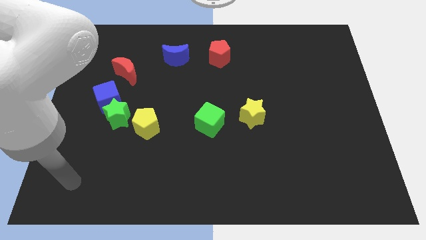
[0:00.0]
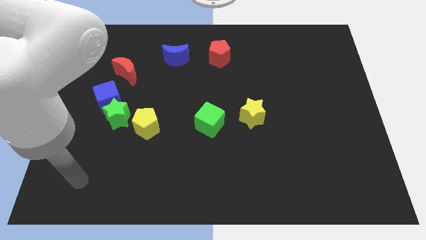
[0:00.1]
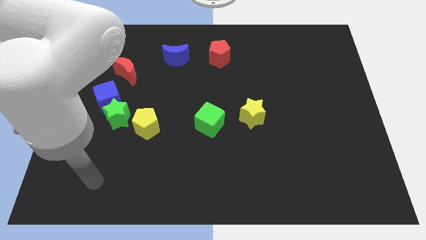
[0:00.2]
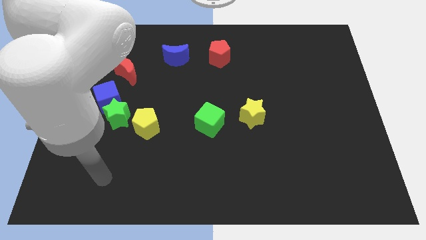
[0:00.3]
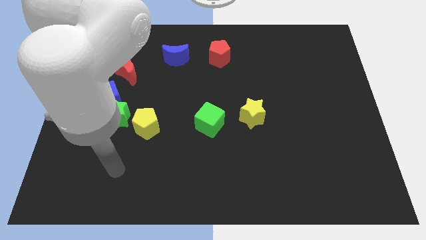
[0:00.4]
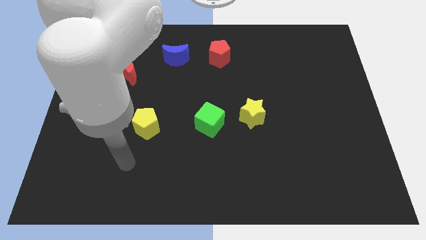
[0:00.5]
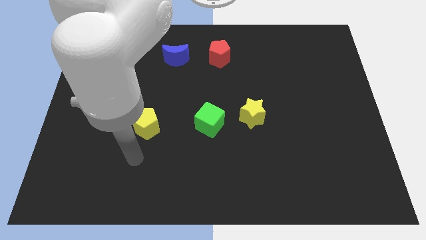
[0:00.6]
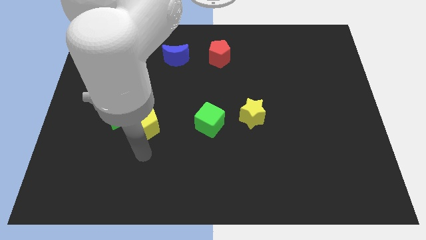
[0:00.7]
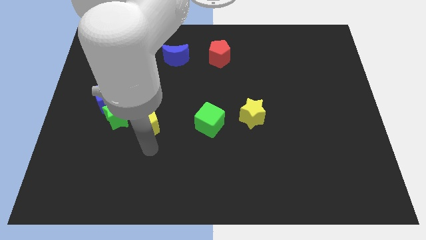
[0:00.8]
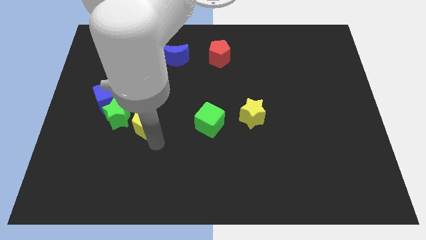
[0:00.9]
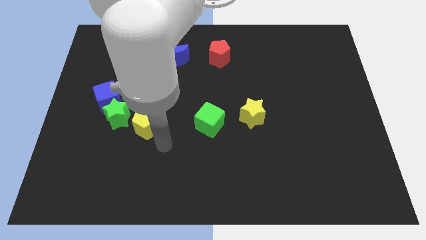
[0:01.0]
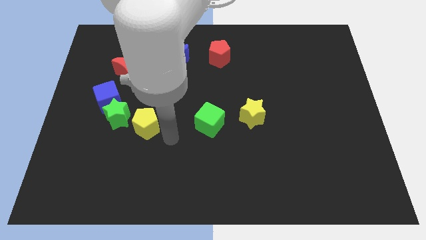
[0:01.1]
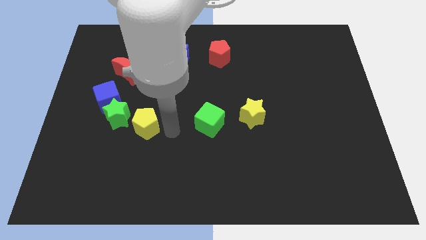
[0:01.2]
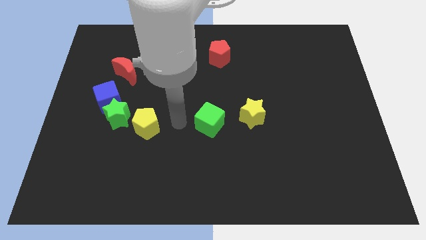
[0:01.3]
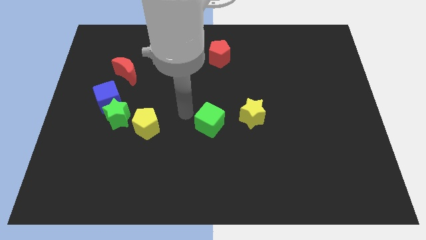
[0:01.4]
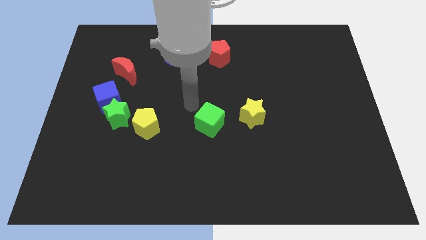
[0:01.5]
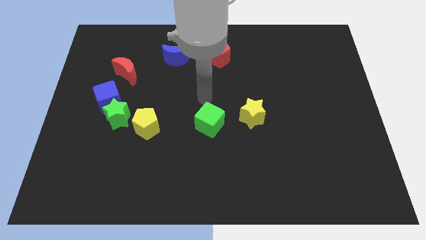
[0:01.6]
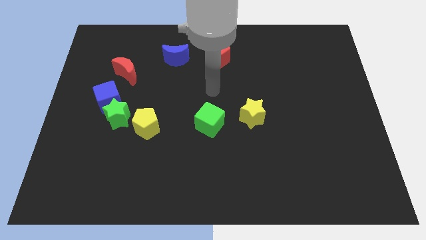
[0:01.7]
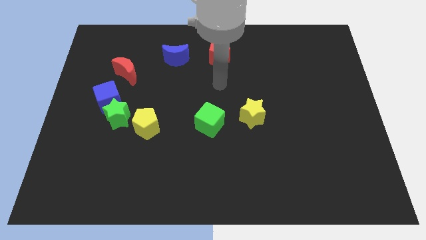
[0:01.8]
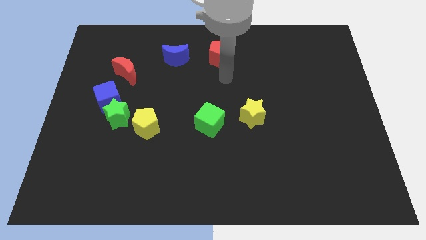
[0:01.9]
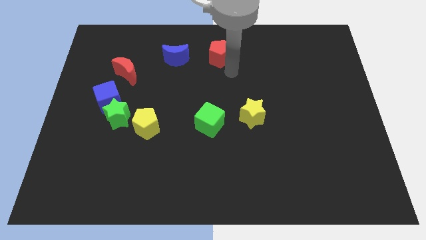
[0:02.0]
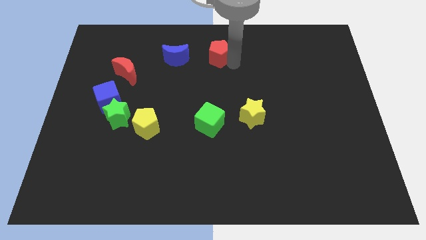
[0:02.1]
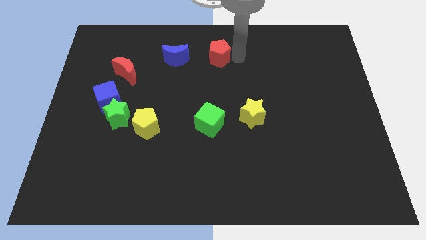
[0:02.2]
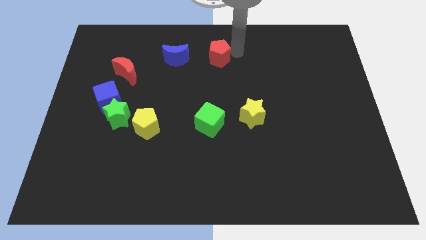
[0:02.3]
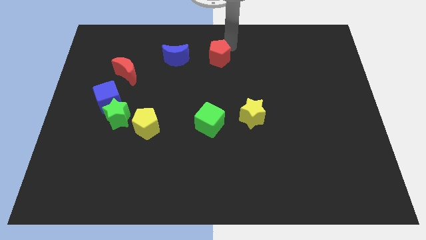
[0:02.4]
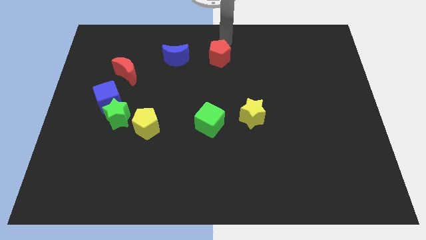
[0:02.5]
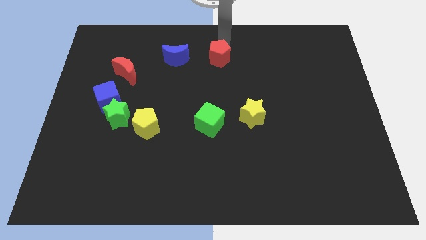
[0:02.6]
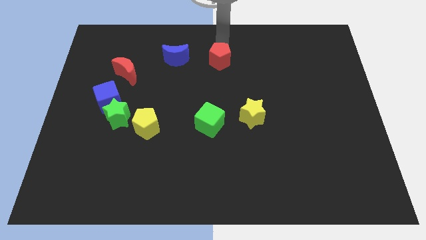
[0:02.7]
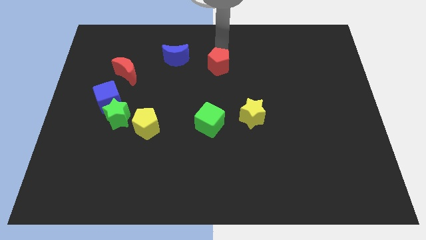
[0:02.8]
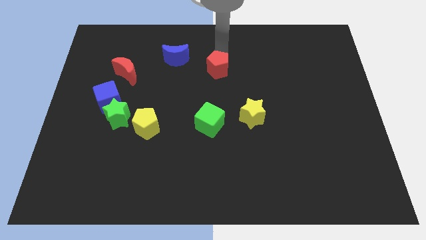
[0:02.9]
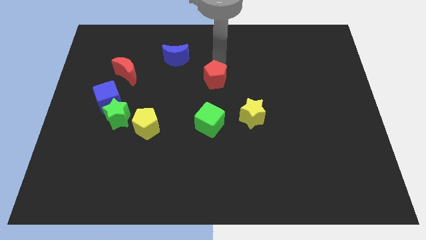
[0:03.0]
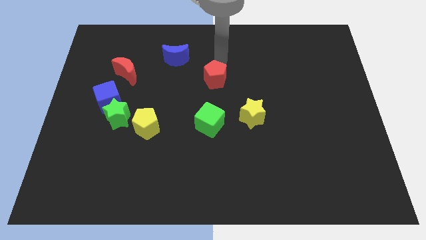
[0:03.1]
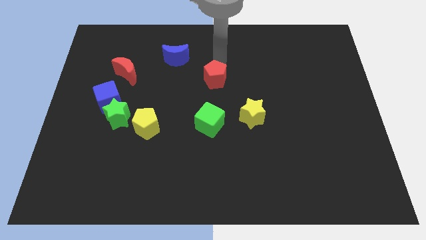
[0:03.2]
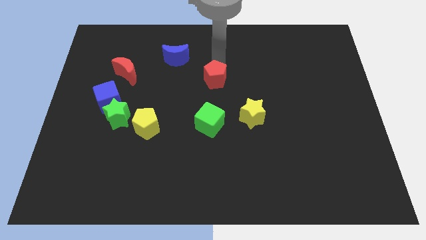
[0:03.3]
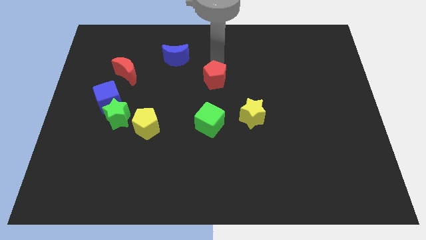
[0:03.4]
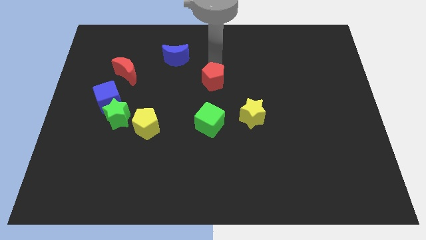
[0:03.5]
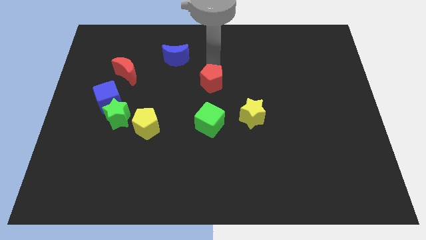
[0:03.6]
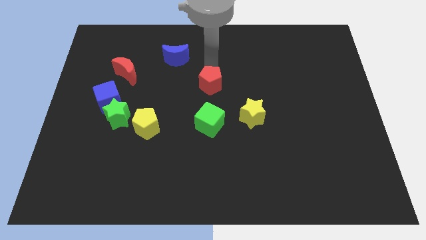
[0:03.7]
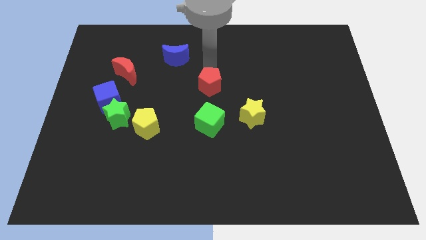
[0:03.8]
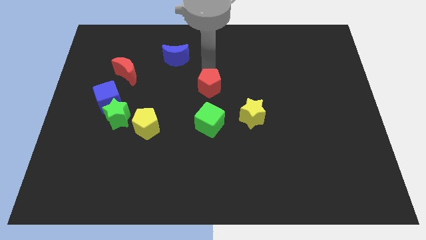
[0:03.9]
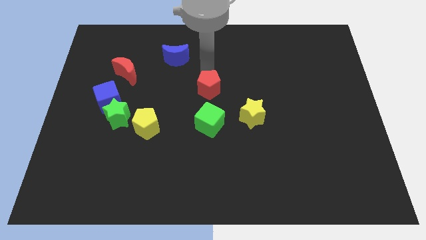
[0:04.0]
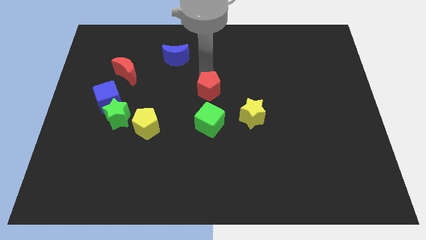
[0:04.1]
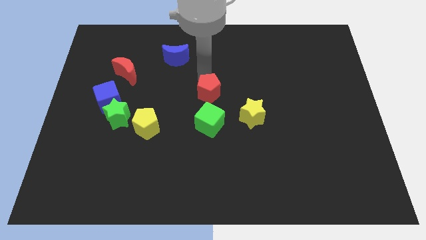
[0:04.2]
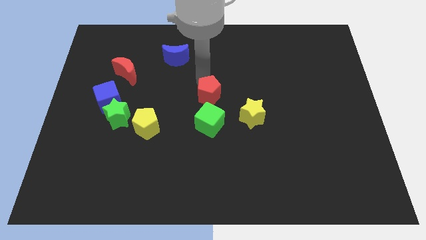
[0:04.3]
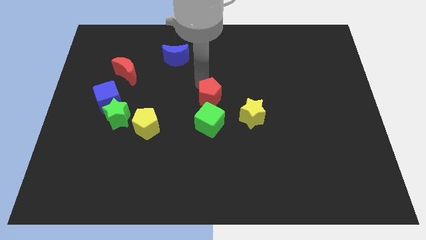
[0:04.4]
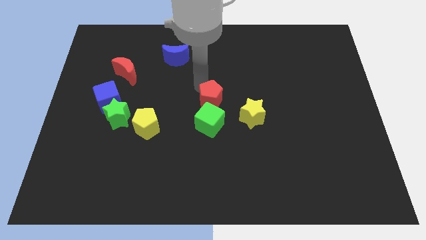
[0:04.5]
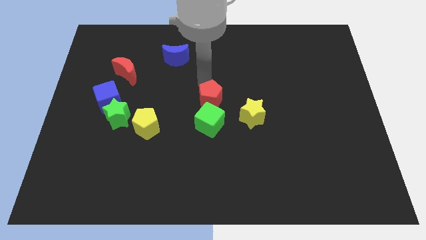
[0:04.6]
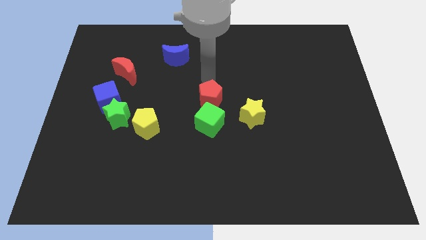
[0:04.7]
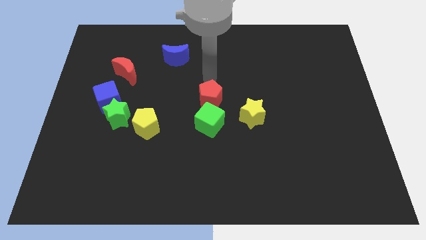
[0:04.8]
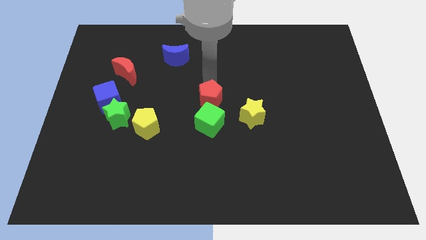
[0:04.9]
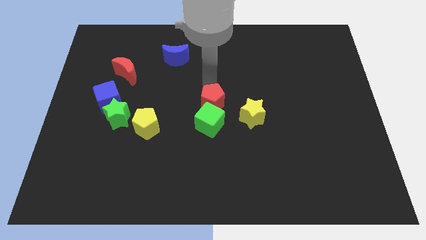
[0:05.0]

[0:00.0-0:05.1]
put the red pentagon towards the green cube

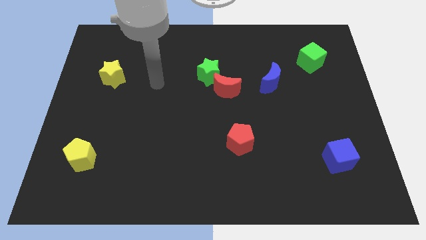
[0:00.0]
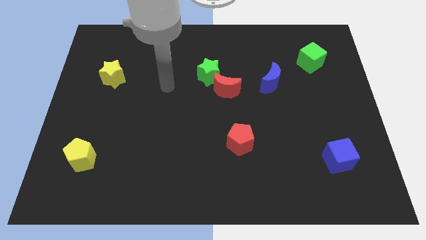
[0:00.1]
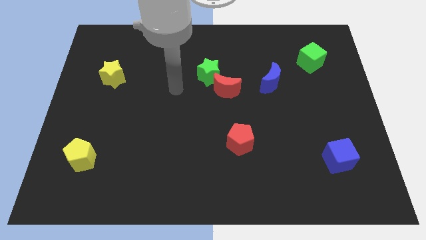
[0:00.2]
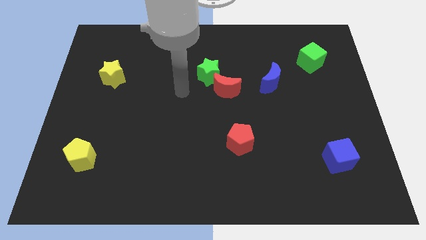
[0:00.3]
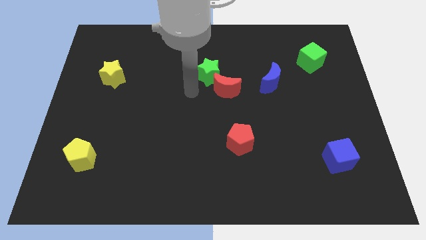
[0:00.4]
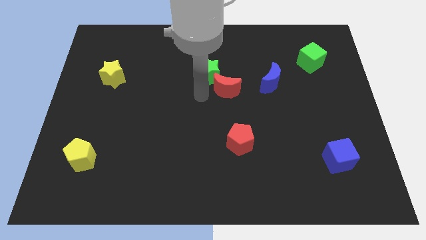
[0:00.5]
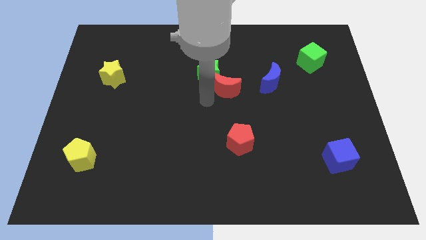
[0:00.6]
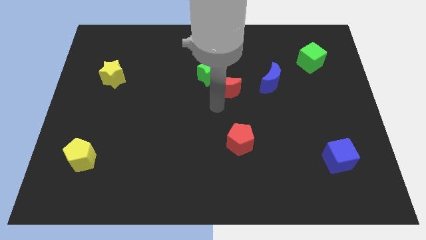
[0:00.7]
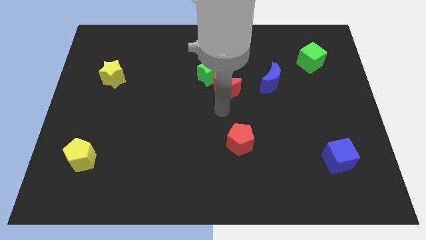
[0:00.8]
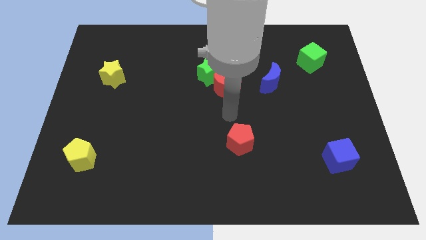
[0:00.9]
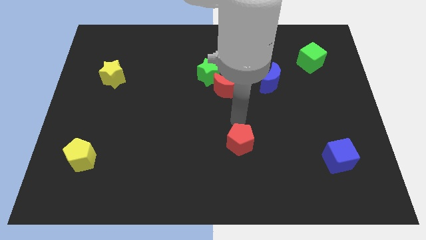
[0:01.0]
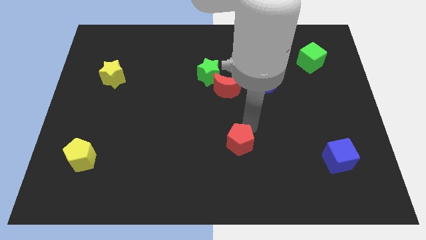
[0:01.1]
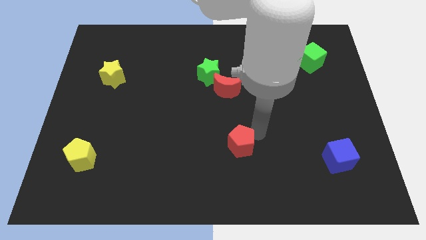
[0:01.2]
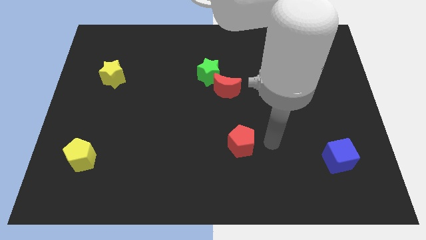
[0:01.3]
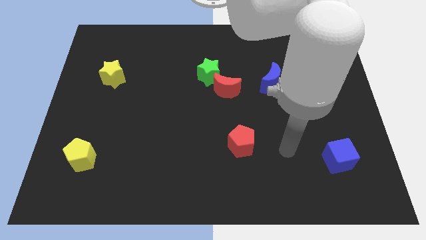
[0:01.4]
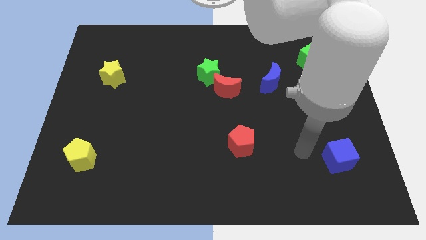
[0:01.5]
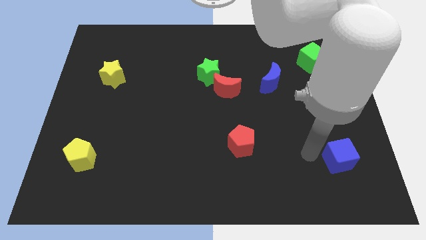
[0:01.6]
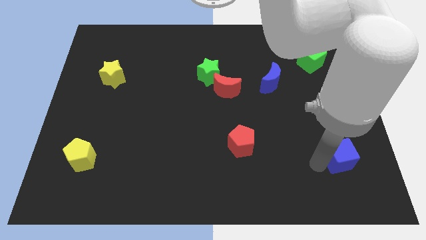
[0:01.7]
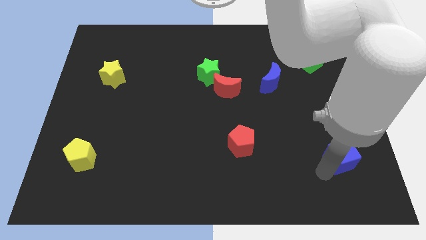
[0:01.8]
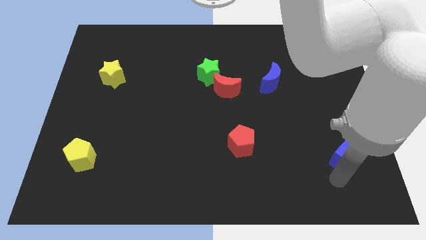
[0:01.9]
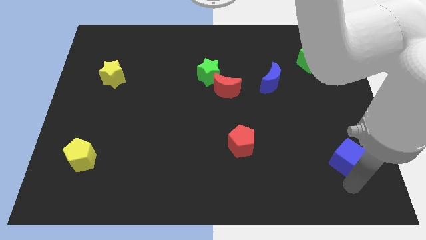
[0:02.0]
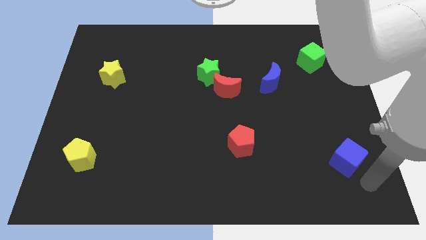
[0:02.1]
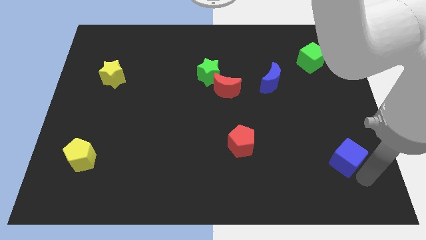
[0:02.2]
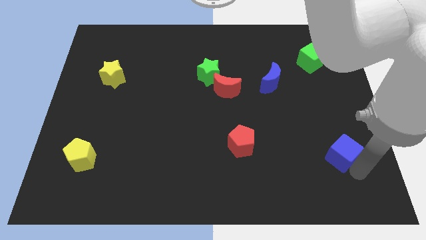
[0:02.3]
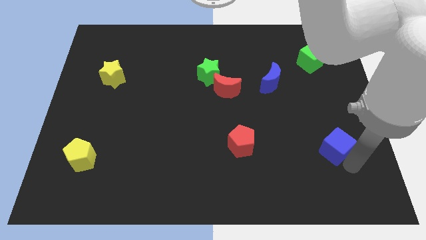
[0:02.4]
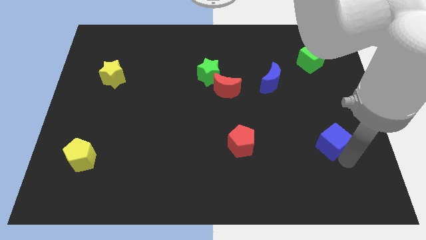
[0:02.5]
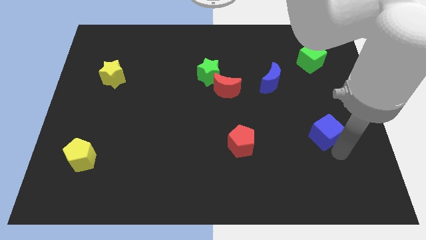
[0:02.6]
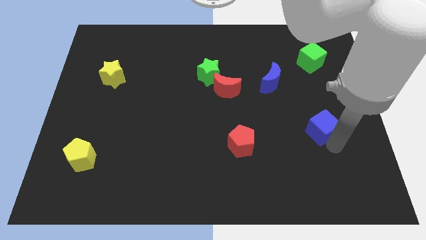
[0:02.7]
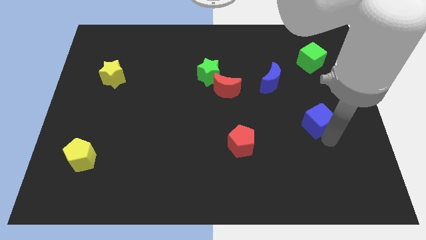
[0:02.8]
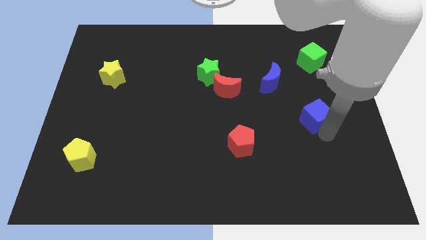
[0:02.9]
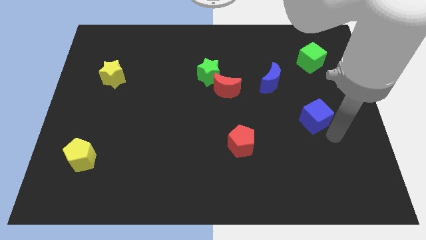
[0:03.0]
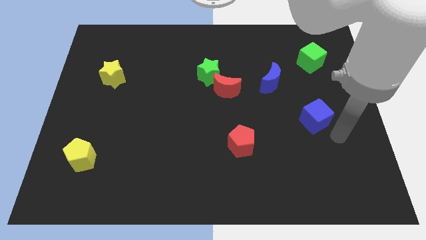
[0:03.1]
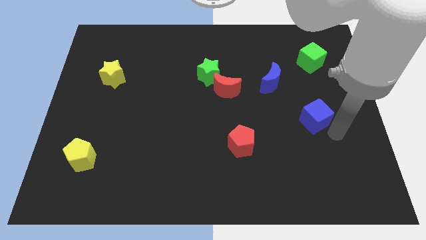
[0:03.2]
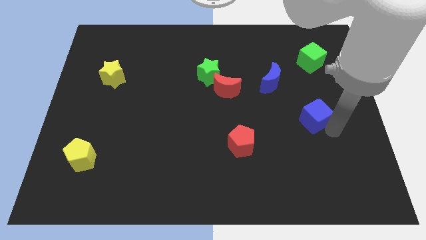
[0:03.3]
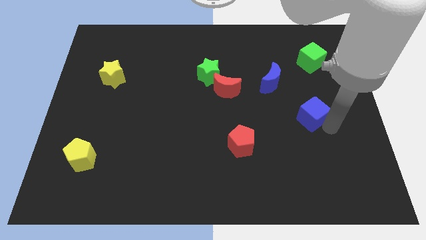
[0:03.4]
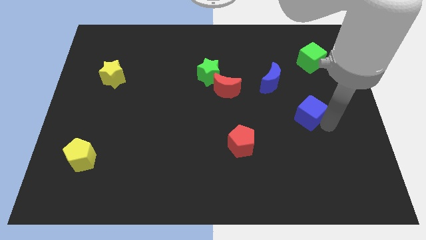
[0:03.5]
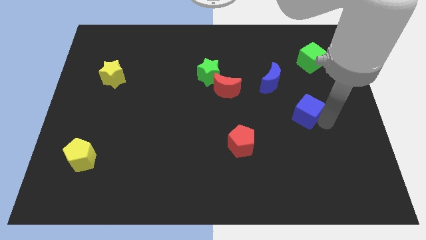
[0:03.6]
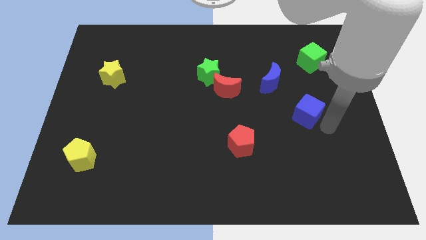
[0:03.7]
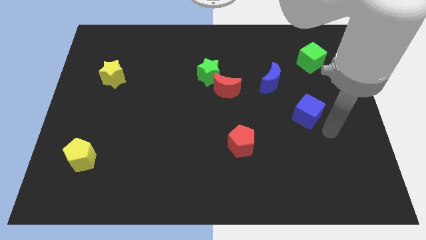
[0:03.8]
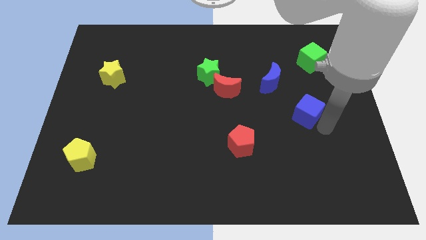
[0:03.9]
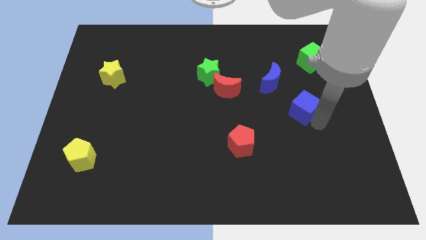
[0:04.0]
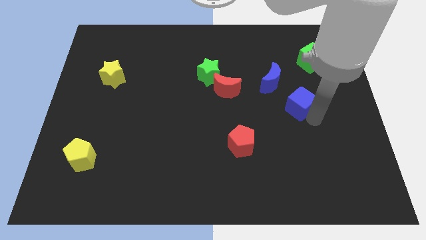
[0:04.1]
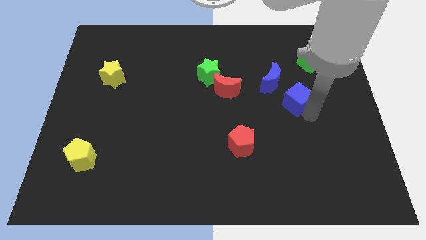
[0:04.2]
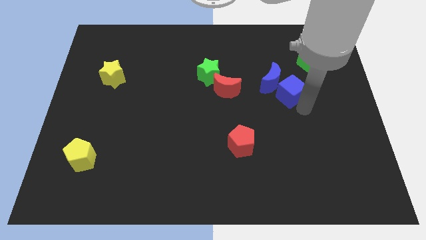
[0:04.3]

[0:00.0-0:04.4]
push the blue cube to the blue moon
